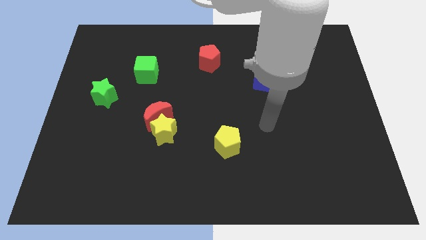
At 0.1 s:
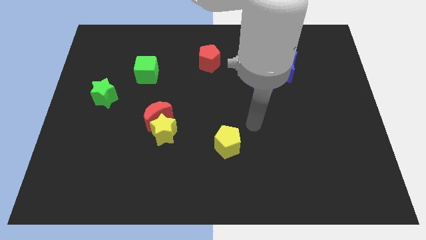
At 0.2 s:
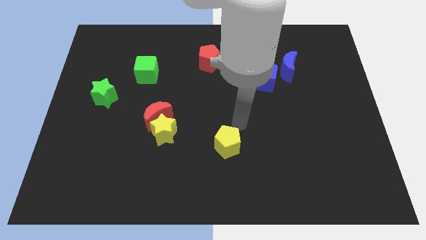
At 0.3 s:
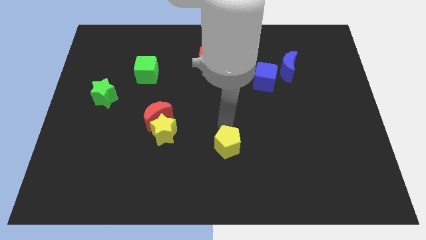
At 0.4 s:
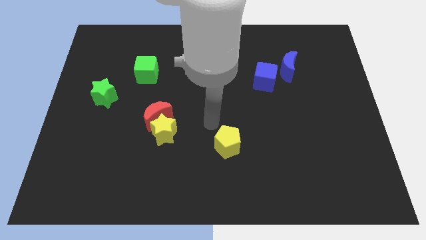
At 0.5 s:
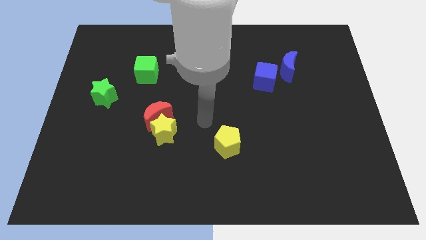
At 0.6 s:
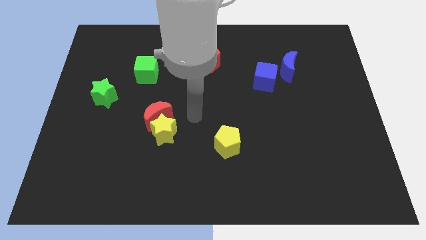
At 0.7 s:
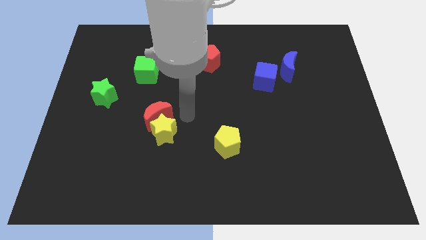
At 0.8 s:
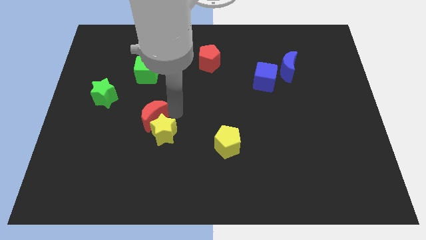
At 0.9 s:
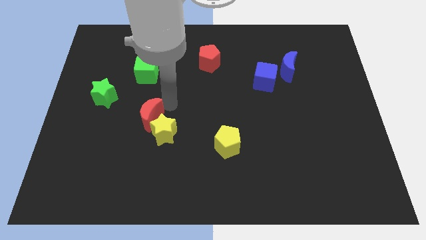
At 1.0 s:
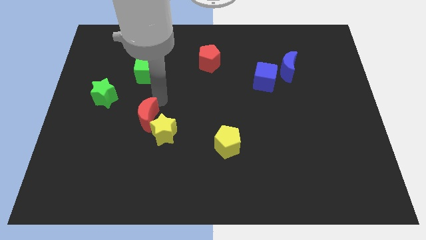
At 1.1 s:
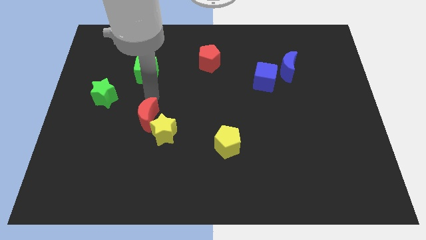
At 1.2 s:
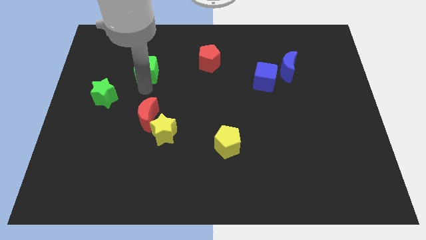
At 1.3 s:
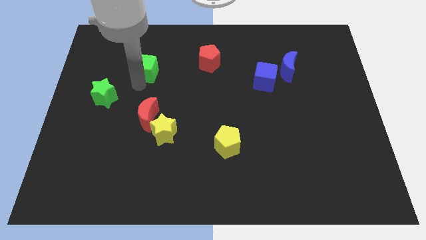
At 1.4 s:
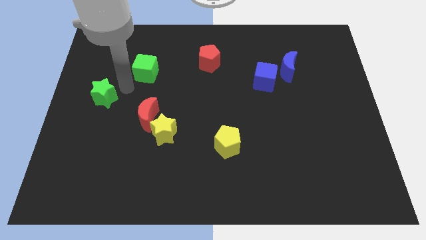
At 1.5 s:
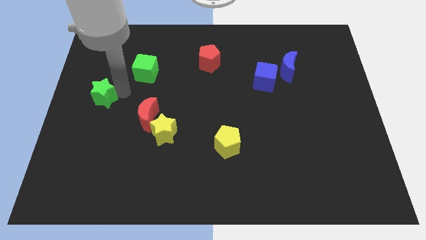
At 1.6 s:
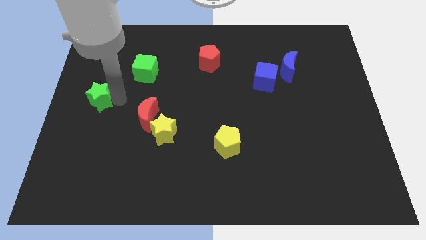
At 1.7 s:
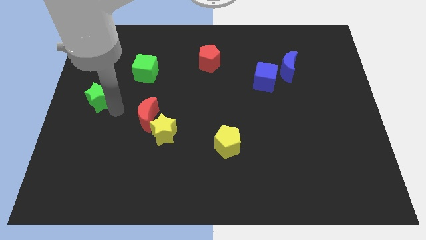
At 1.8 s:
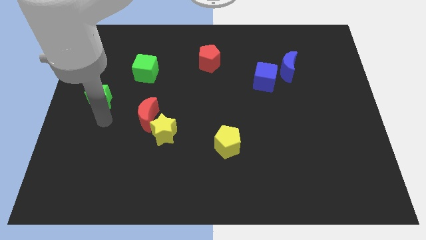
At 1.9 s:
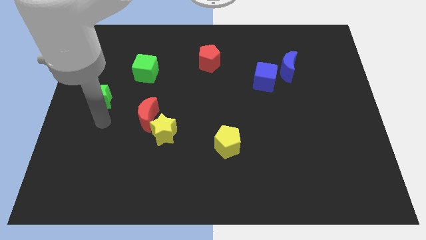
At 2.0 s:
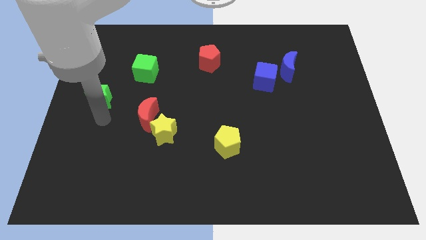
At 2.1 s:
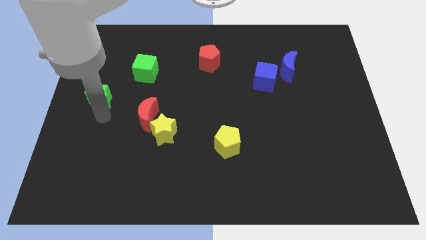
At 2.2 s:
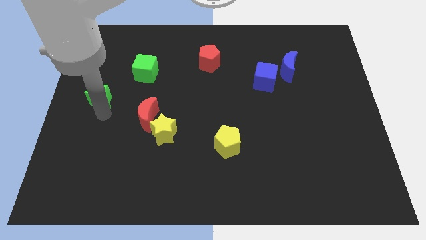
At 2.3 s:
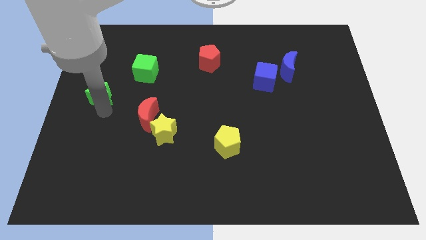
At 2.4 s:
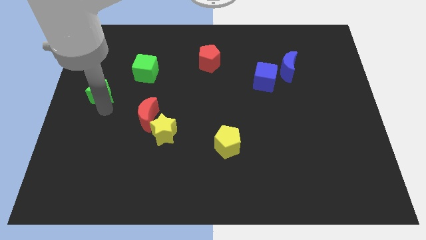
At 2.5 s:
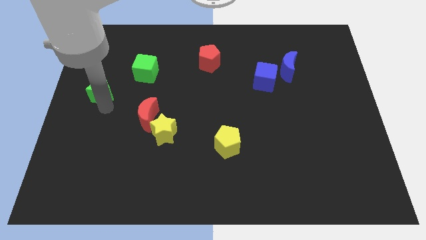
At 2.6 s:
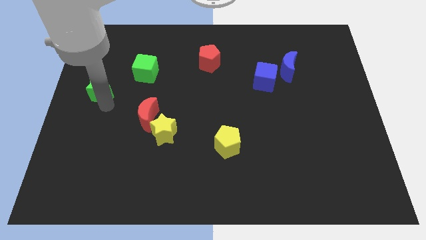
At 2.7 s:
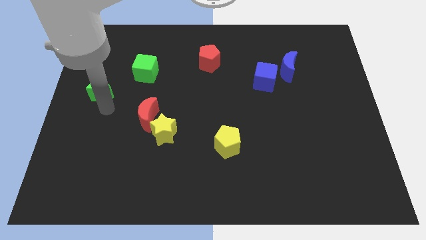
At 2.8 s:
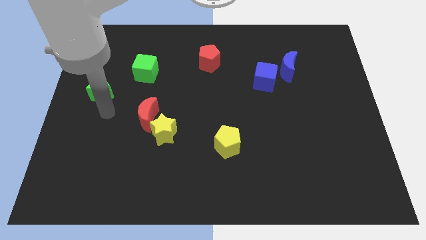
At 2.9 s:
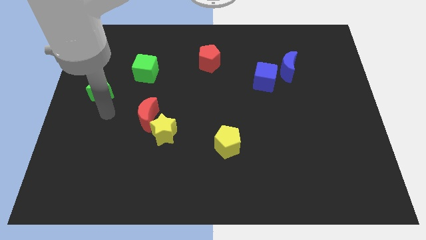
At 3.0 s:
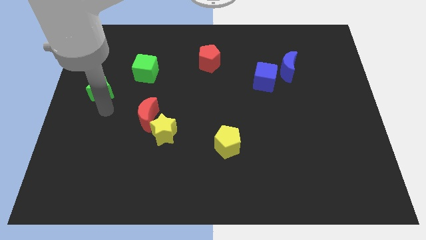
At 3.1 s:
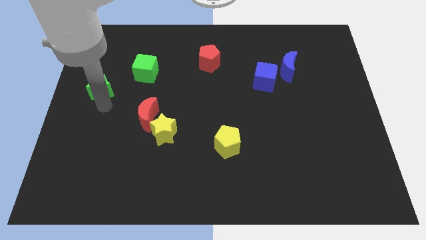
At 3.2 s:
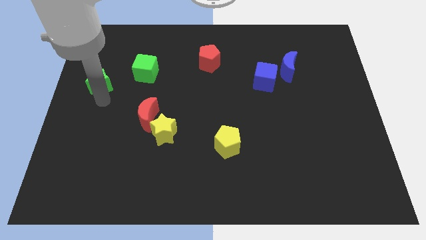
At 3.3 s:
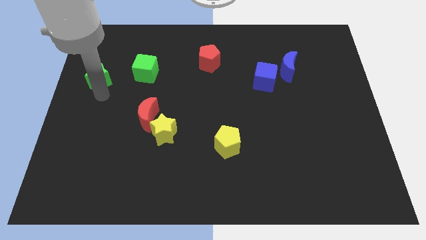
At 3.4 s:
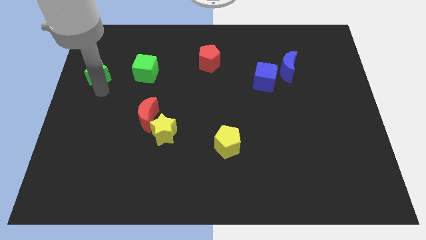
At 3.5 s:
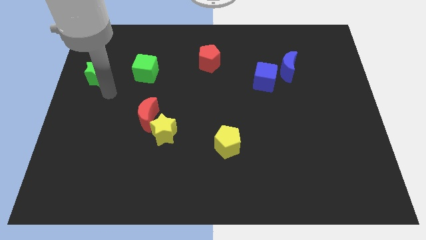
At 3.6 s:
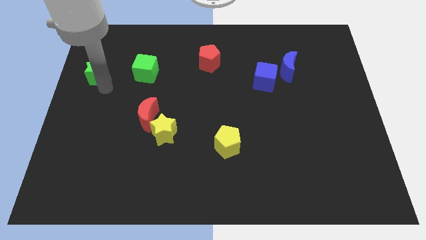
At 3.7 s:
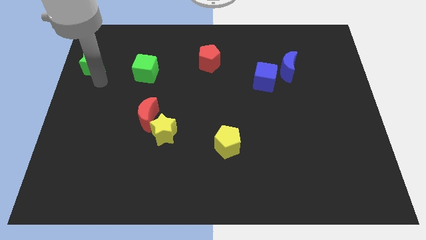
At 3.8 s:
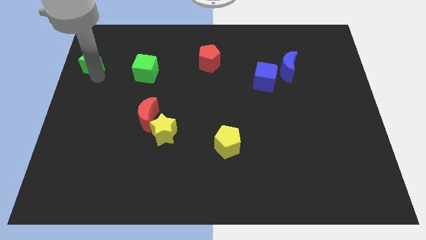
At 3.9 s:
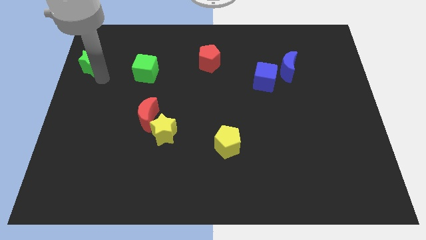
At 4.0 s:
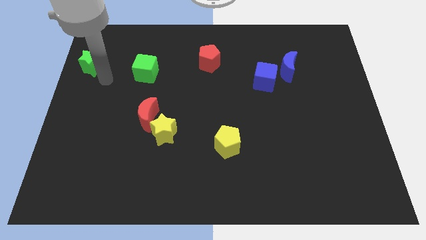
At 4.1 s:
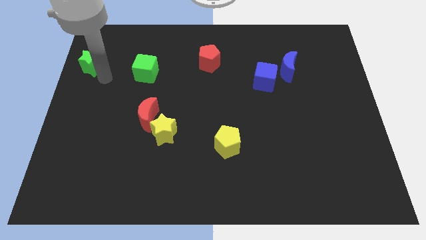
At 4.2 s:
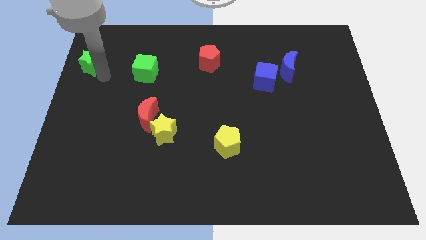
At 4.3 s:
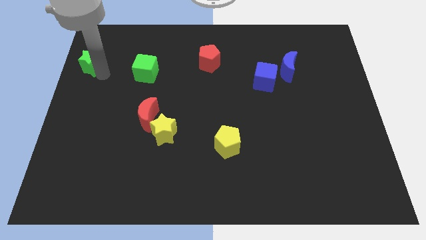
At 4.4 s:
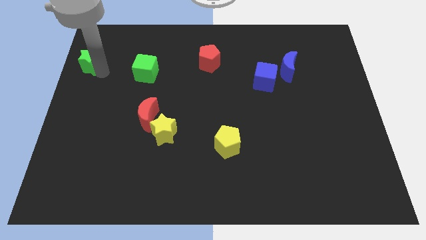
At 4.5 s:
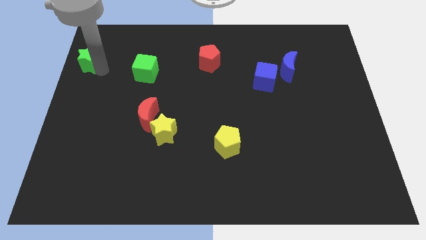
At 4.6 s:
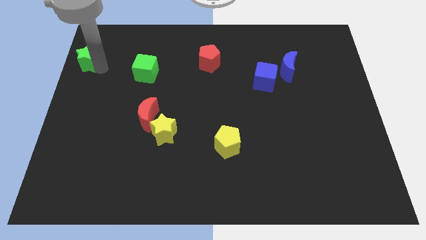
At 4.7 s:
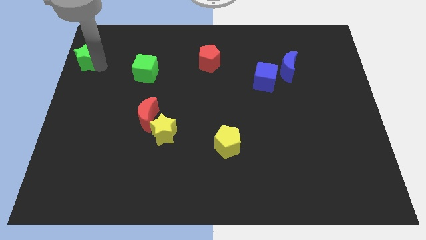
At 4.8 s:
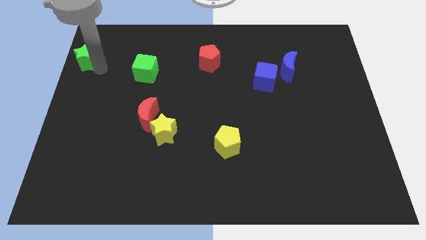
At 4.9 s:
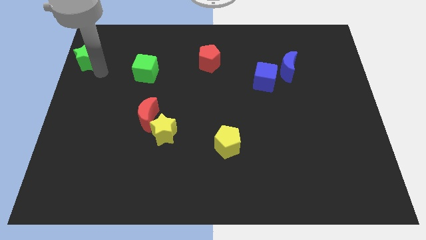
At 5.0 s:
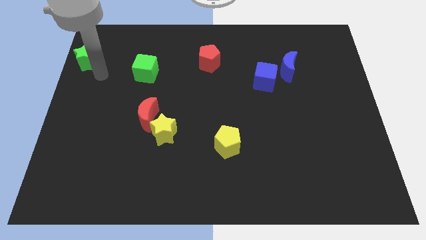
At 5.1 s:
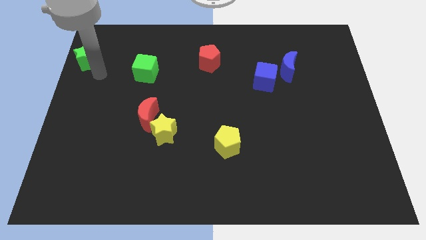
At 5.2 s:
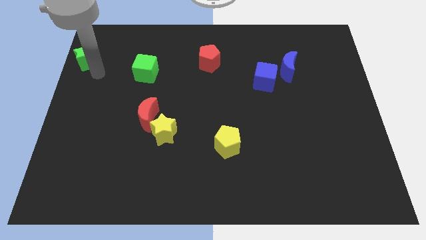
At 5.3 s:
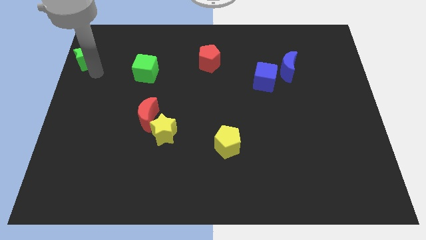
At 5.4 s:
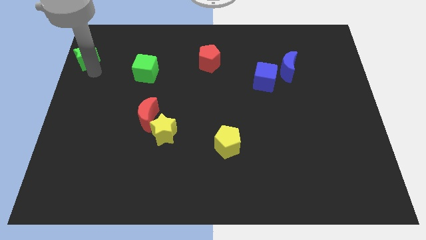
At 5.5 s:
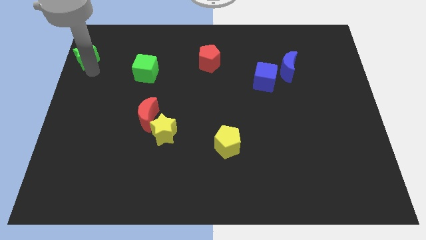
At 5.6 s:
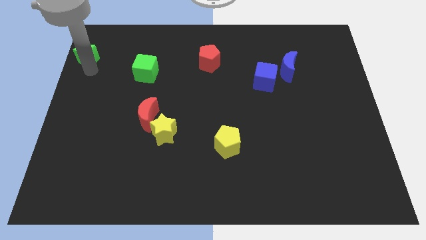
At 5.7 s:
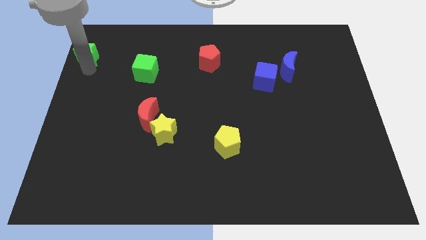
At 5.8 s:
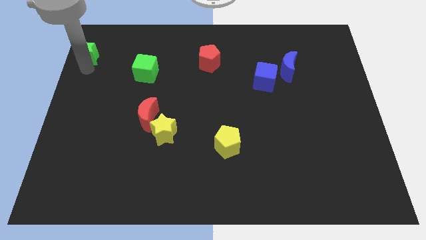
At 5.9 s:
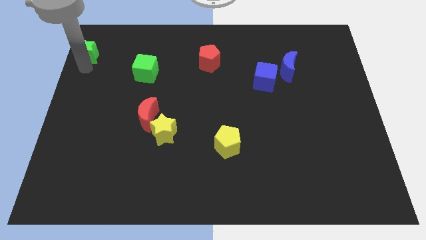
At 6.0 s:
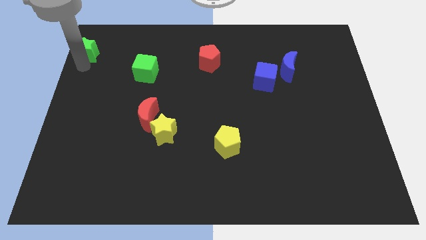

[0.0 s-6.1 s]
push the green star to the top left

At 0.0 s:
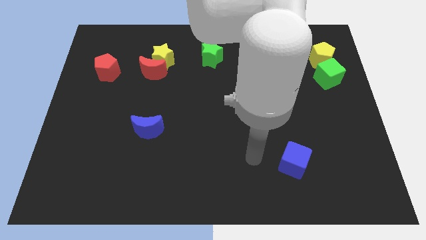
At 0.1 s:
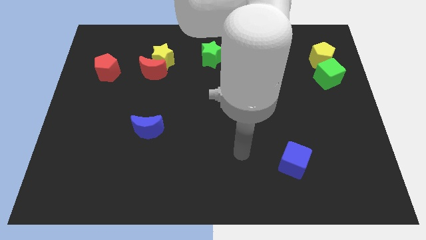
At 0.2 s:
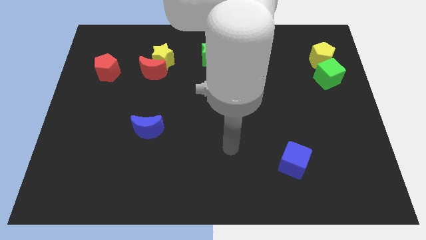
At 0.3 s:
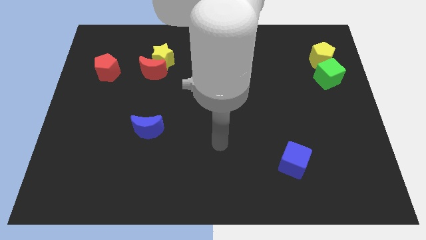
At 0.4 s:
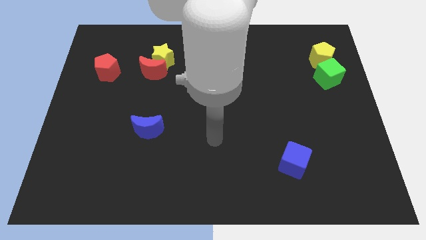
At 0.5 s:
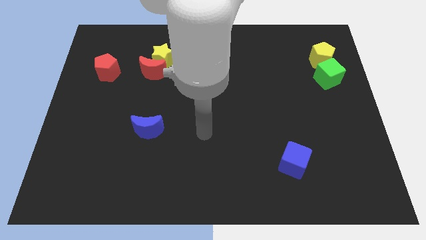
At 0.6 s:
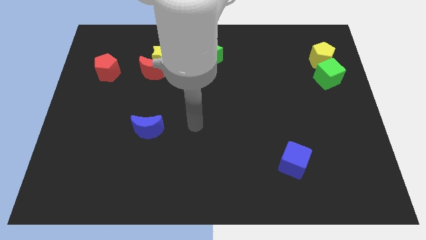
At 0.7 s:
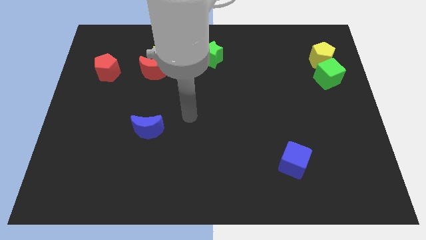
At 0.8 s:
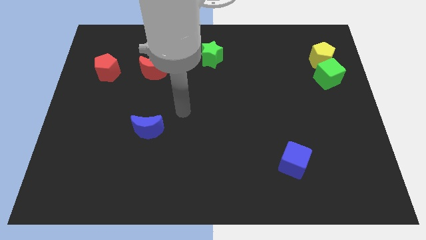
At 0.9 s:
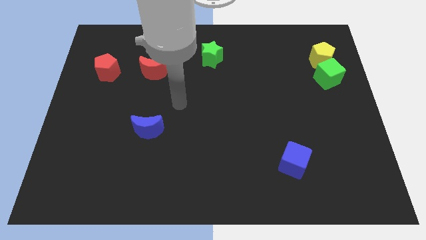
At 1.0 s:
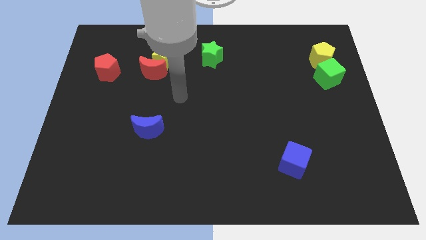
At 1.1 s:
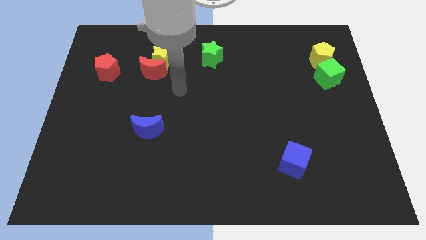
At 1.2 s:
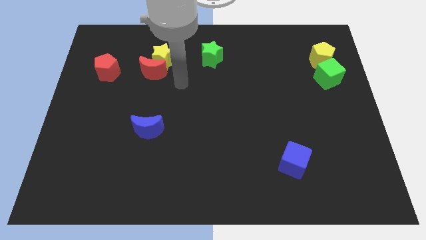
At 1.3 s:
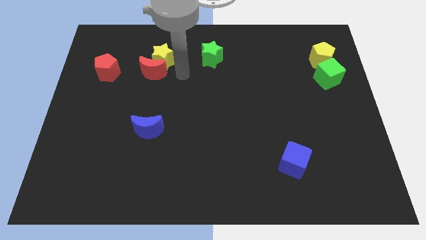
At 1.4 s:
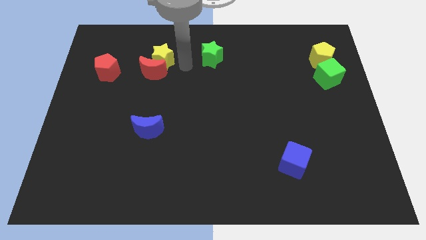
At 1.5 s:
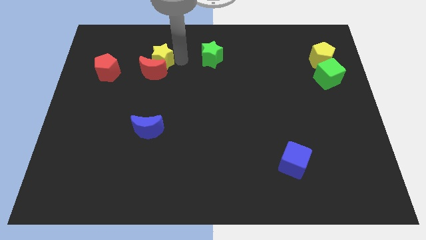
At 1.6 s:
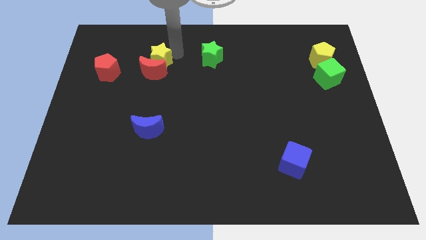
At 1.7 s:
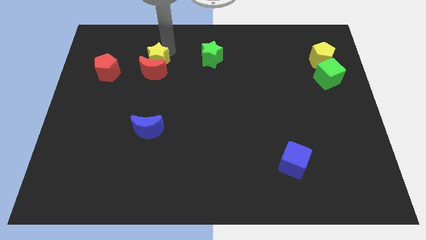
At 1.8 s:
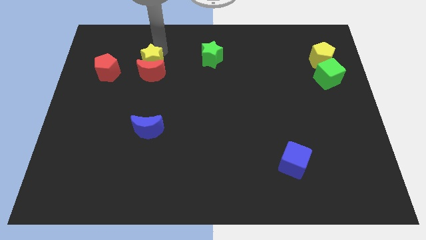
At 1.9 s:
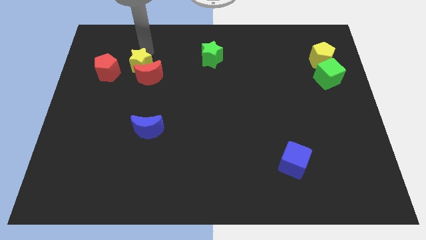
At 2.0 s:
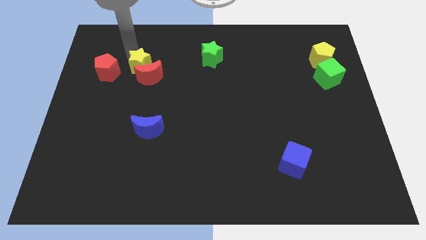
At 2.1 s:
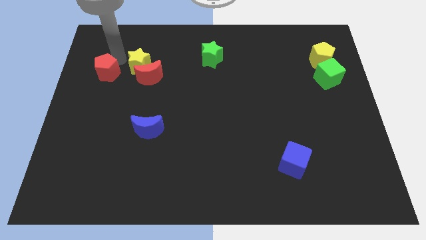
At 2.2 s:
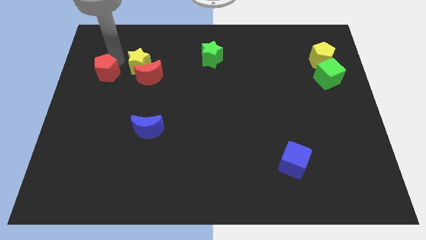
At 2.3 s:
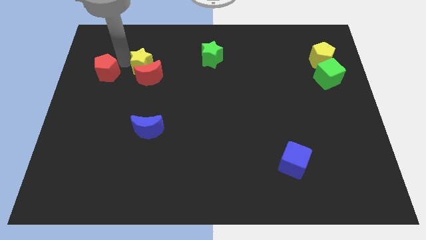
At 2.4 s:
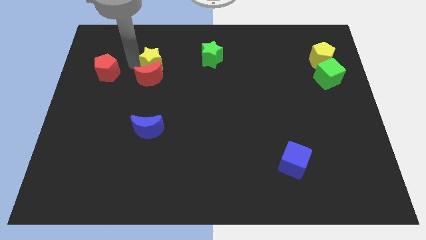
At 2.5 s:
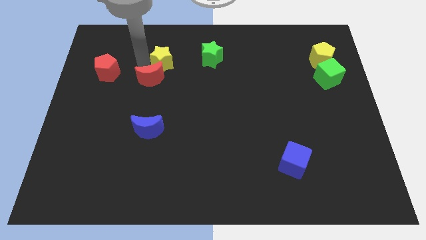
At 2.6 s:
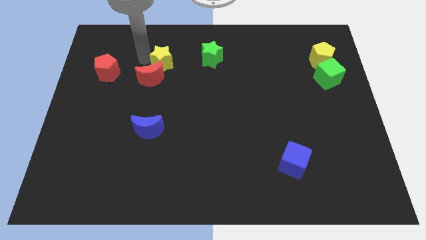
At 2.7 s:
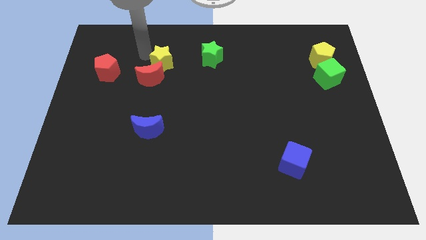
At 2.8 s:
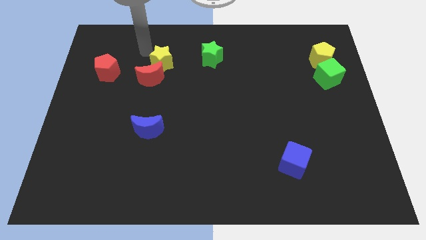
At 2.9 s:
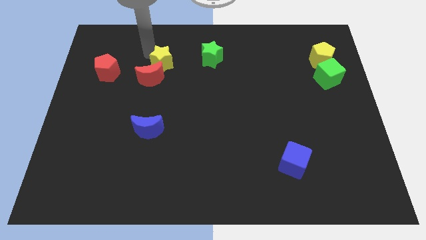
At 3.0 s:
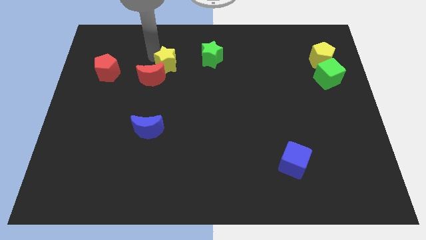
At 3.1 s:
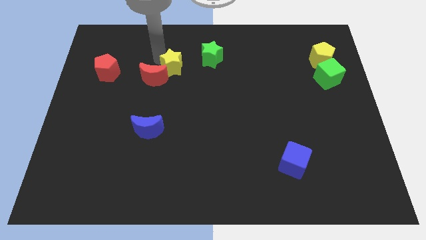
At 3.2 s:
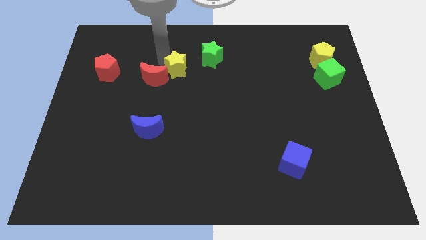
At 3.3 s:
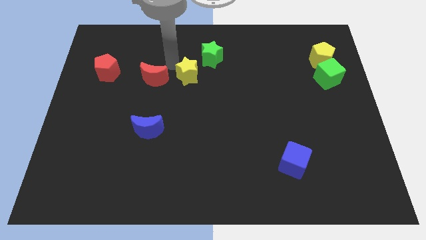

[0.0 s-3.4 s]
push the yellow star to the center
